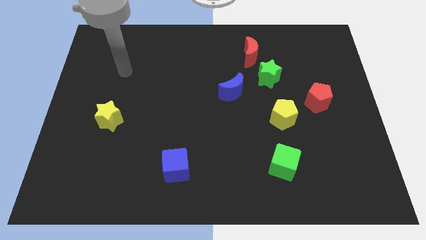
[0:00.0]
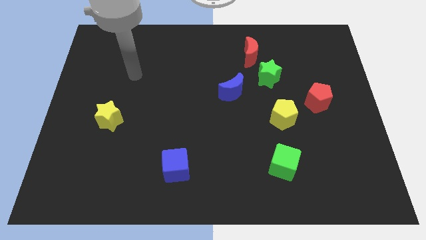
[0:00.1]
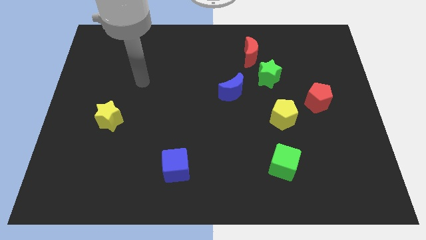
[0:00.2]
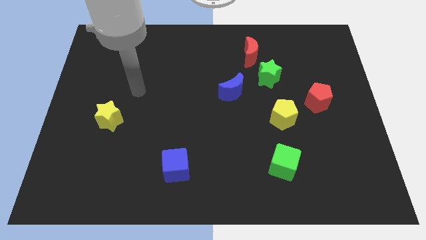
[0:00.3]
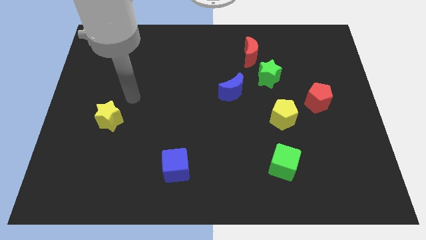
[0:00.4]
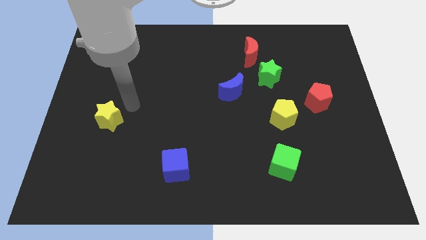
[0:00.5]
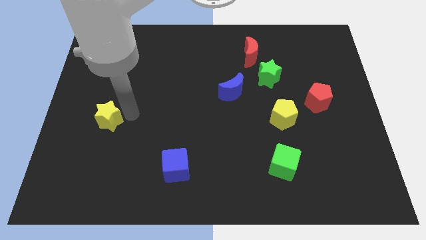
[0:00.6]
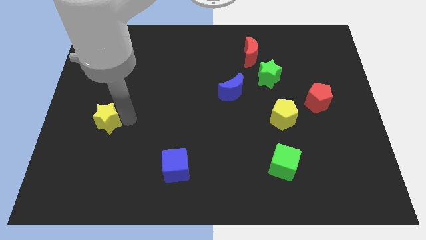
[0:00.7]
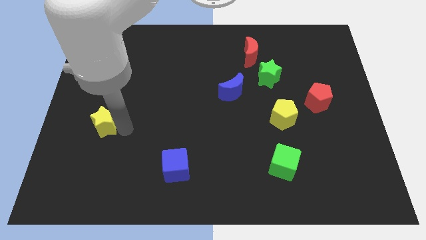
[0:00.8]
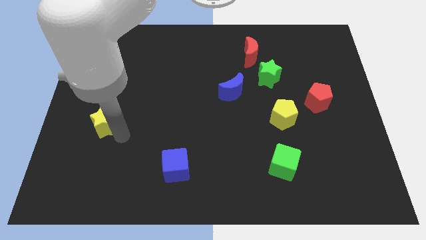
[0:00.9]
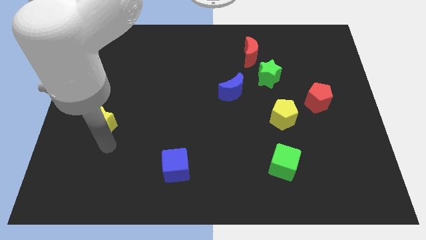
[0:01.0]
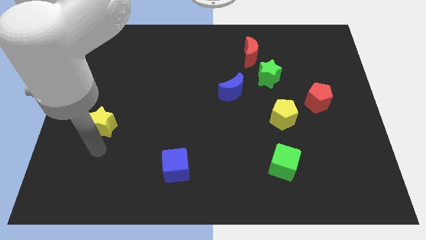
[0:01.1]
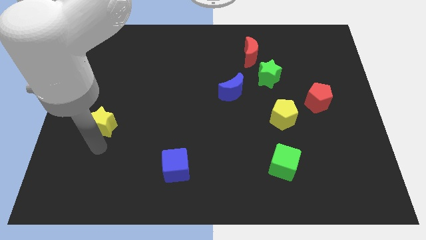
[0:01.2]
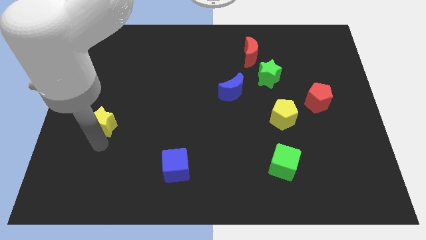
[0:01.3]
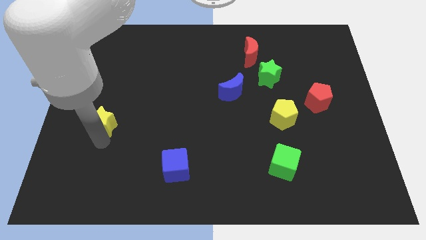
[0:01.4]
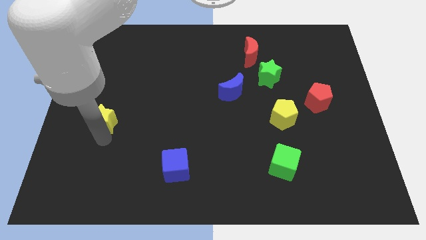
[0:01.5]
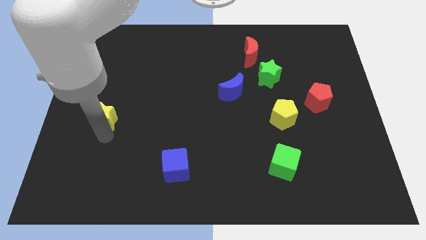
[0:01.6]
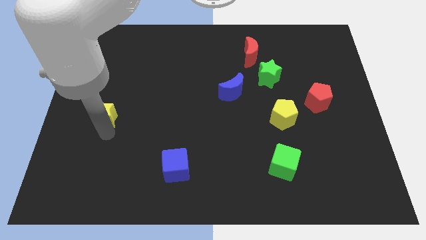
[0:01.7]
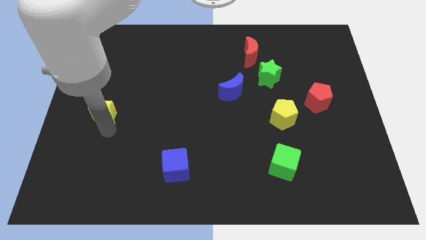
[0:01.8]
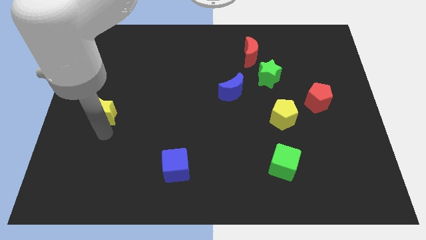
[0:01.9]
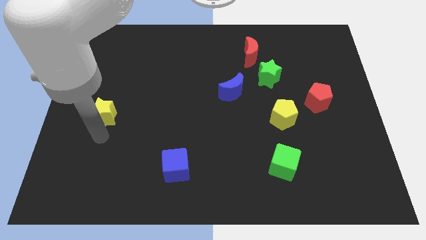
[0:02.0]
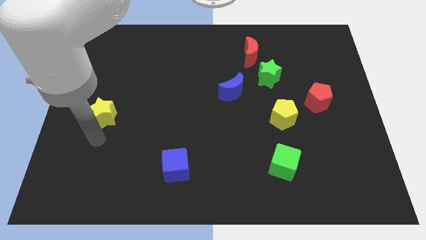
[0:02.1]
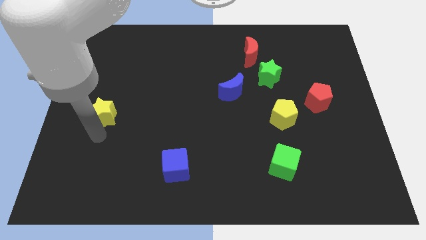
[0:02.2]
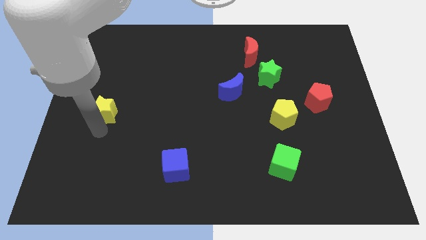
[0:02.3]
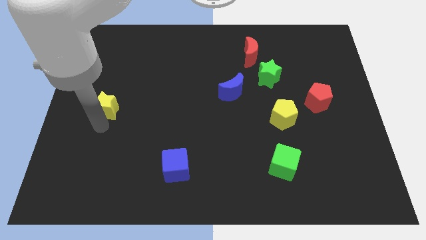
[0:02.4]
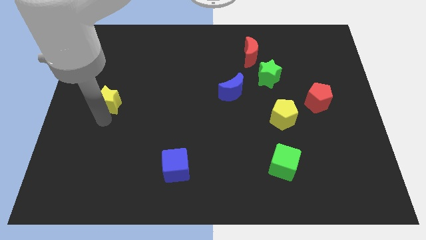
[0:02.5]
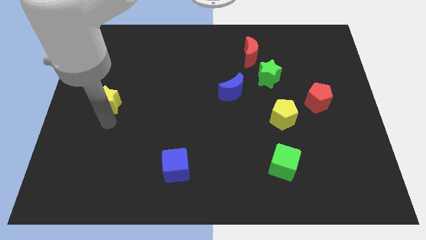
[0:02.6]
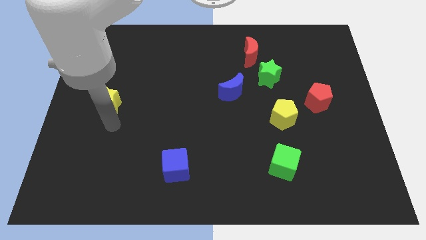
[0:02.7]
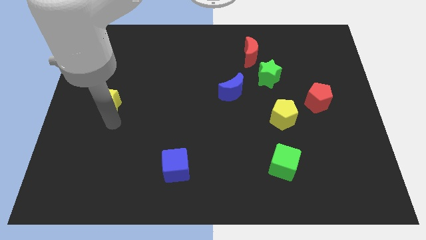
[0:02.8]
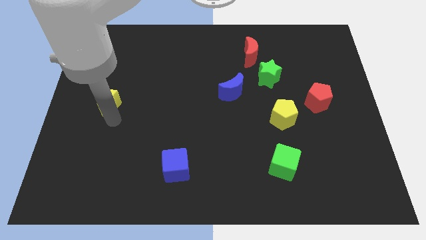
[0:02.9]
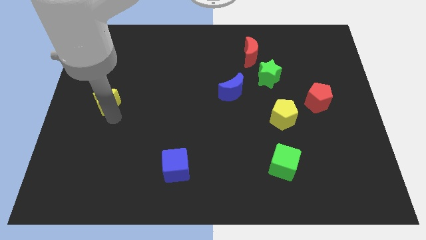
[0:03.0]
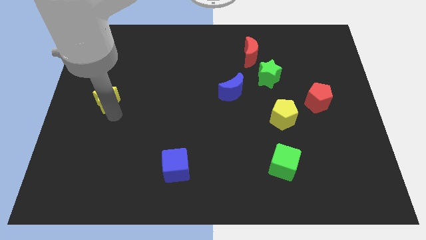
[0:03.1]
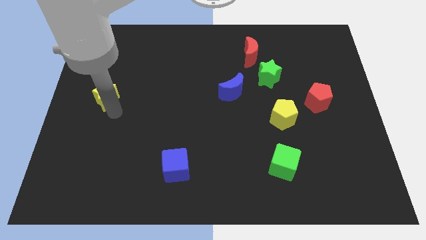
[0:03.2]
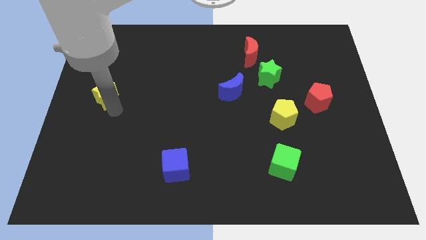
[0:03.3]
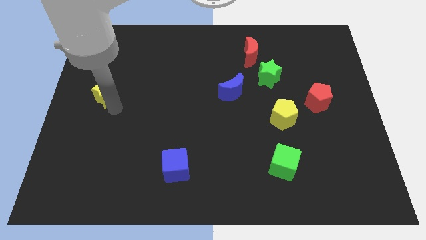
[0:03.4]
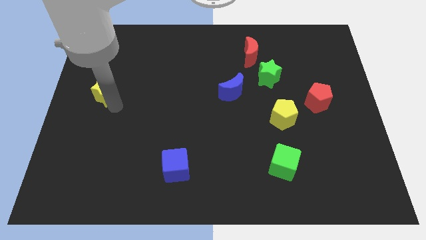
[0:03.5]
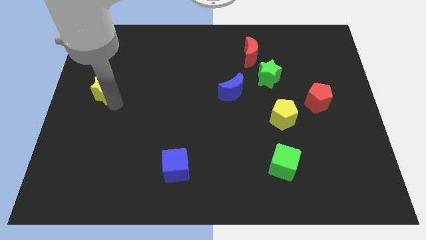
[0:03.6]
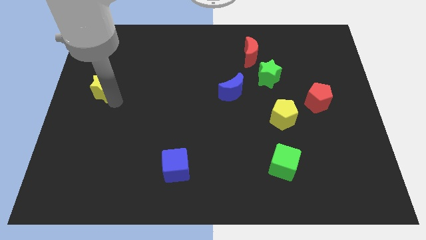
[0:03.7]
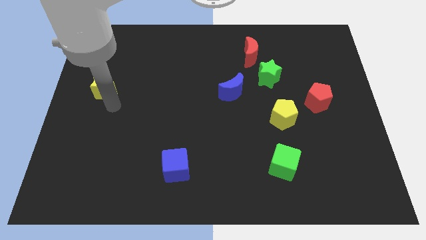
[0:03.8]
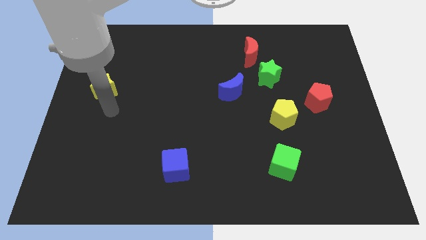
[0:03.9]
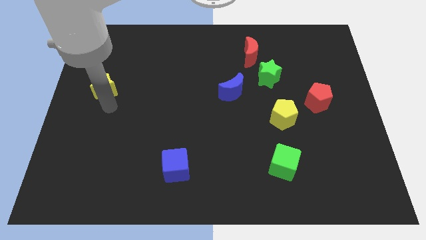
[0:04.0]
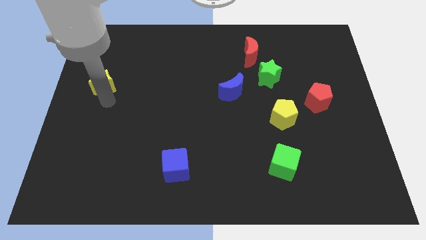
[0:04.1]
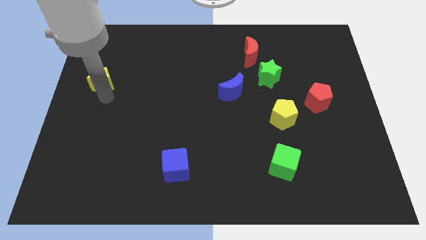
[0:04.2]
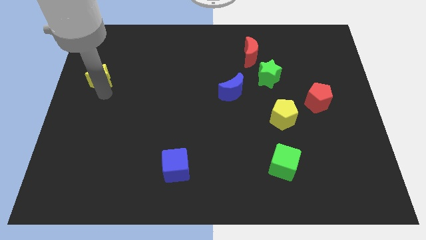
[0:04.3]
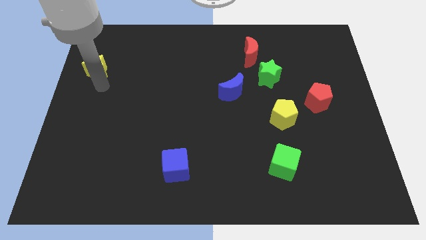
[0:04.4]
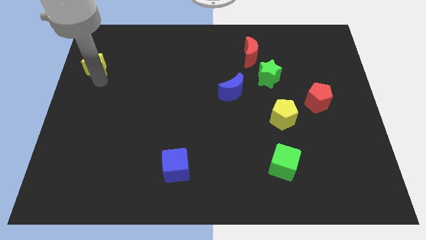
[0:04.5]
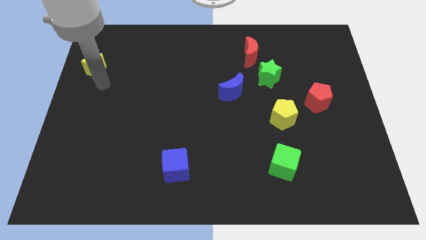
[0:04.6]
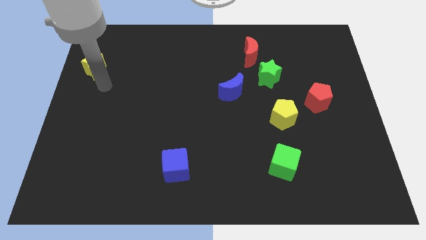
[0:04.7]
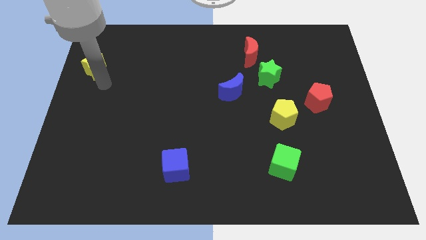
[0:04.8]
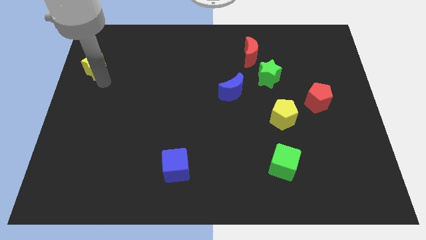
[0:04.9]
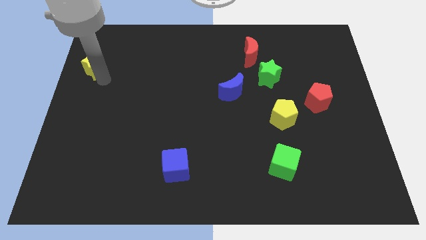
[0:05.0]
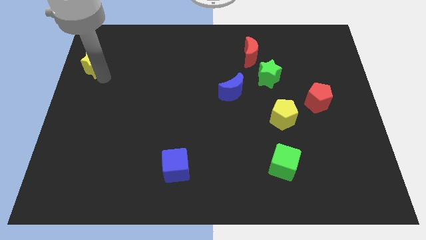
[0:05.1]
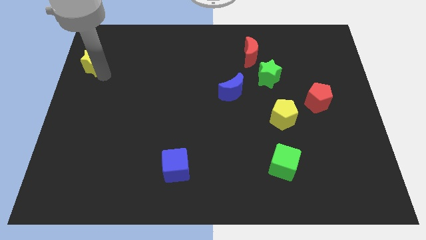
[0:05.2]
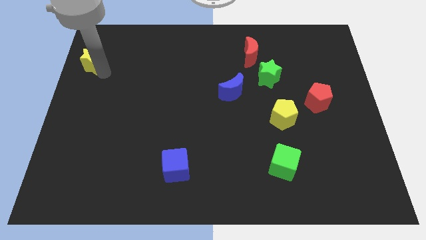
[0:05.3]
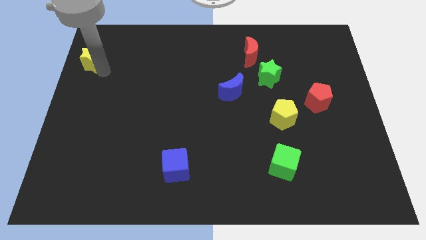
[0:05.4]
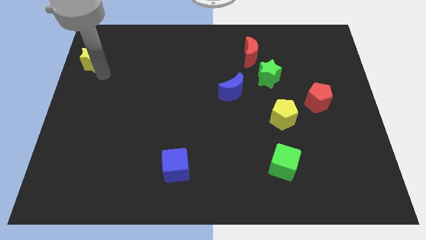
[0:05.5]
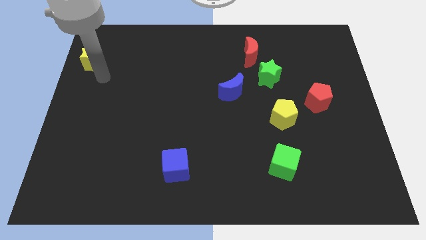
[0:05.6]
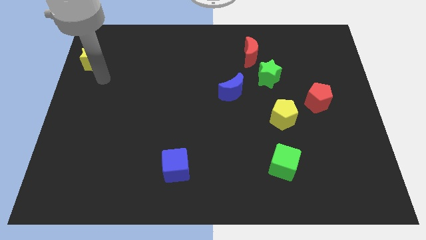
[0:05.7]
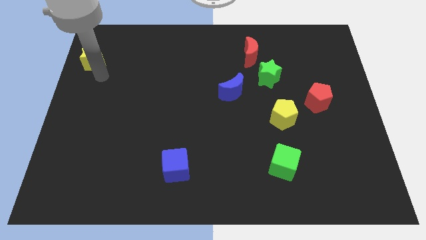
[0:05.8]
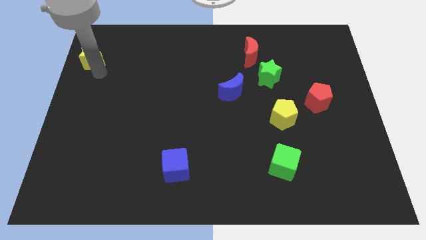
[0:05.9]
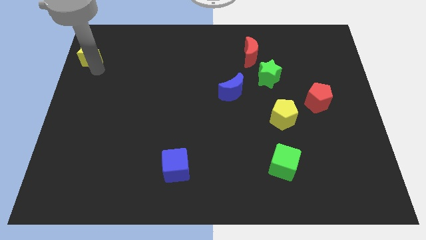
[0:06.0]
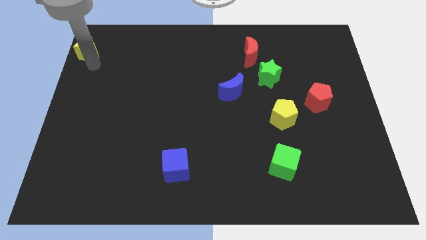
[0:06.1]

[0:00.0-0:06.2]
put the yellow star to the top left corner

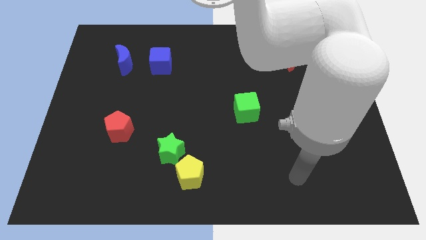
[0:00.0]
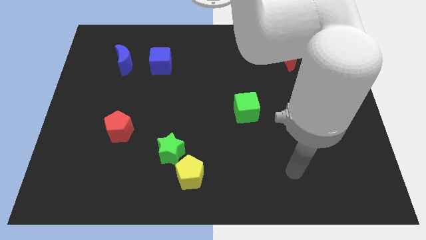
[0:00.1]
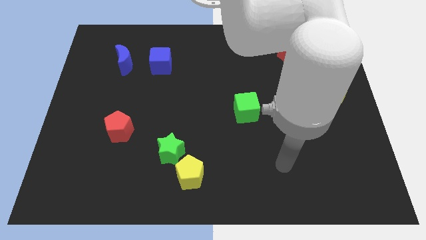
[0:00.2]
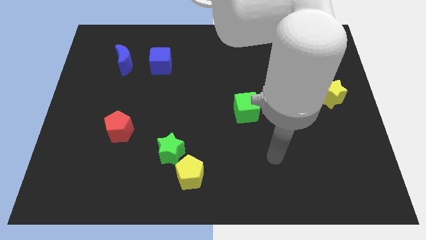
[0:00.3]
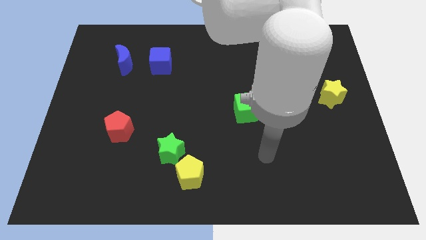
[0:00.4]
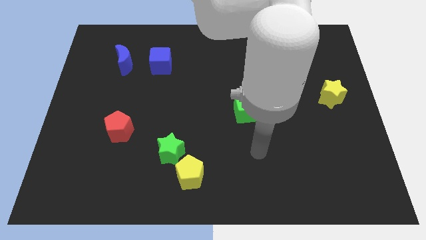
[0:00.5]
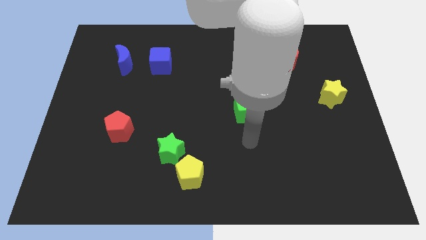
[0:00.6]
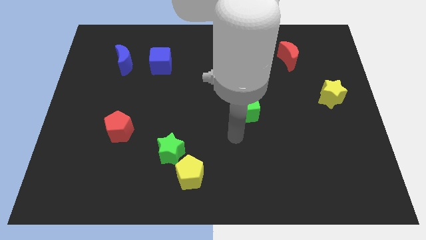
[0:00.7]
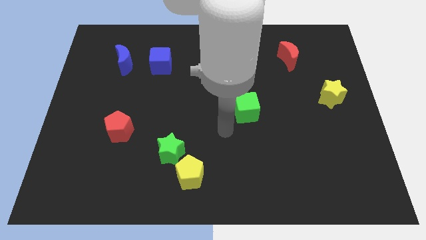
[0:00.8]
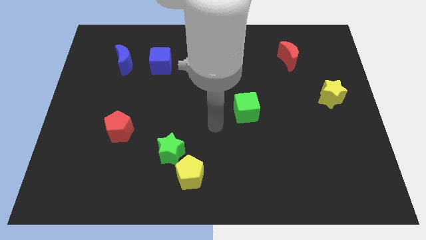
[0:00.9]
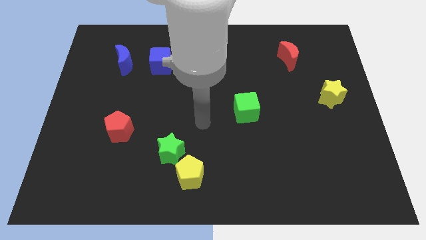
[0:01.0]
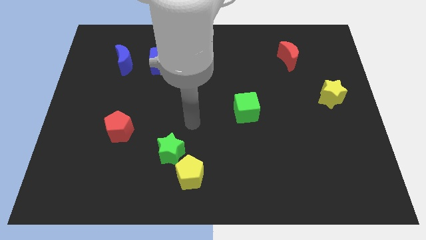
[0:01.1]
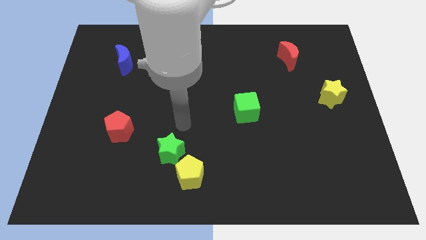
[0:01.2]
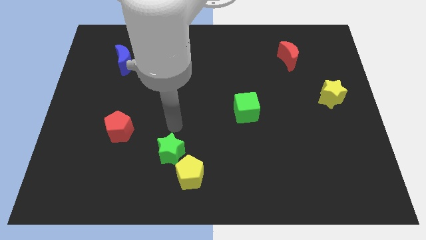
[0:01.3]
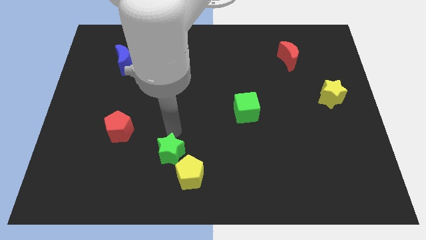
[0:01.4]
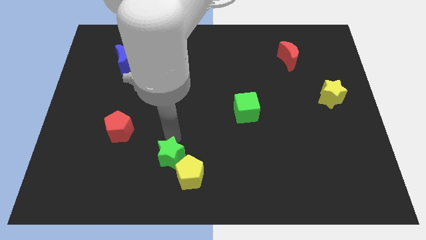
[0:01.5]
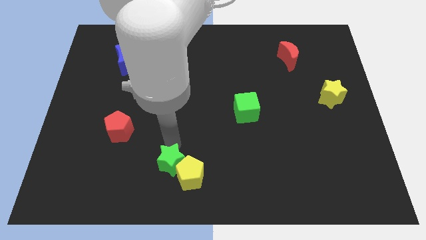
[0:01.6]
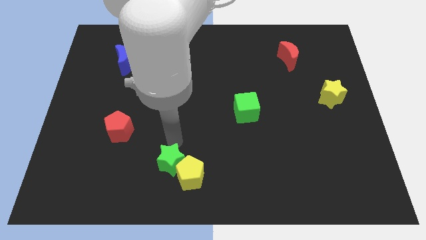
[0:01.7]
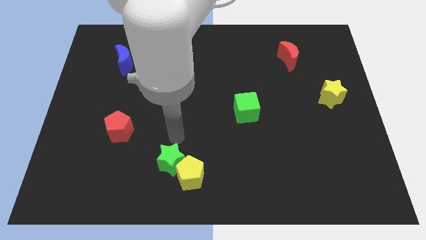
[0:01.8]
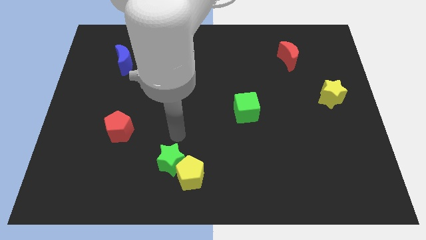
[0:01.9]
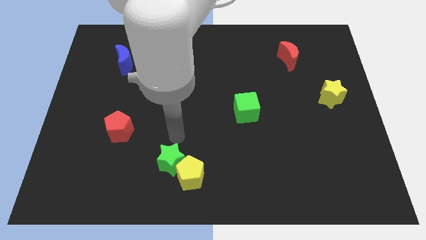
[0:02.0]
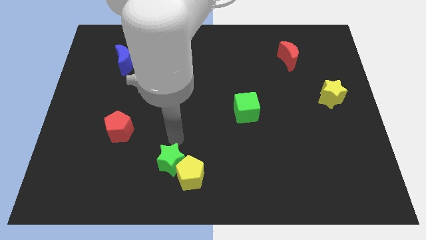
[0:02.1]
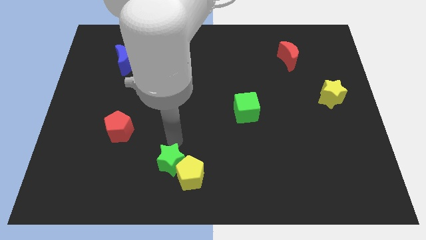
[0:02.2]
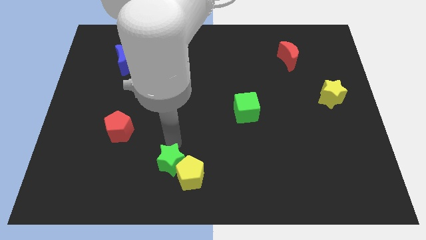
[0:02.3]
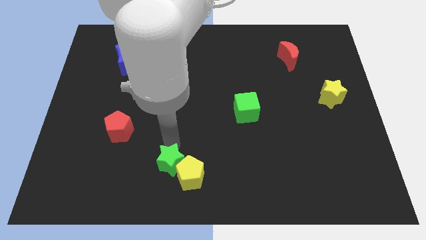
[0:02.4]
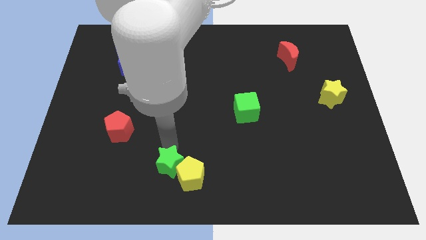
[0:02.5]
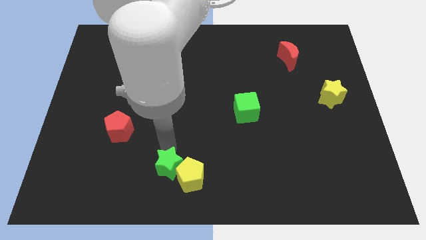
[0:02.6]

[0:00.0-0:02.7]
move the green star to the bottom side
